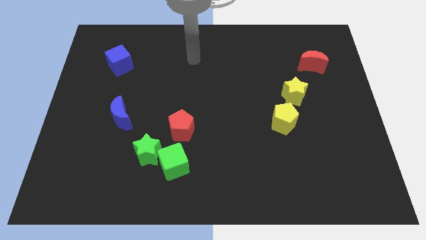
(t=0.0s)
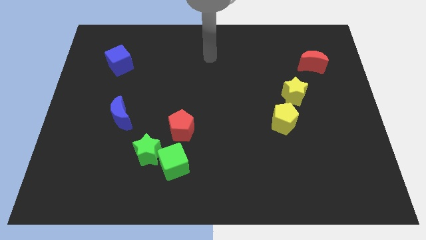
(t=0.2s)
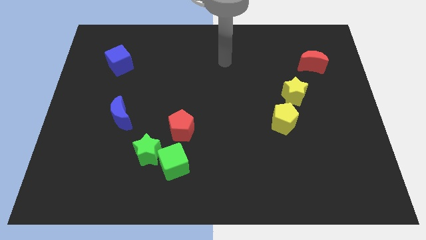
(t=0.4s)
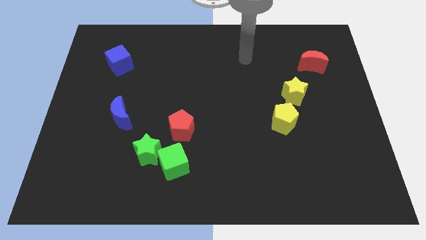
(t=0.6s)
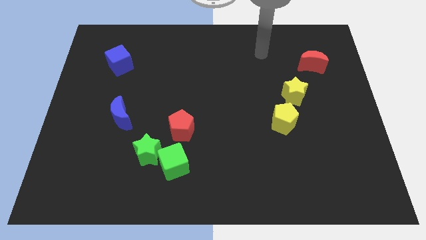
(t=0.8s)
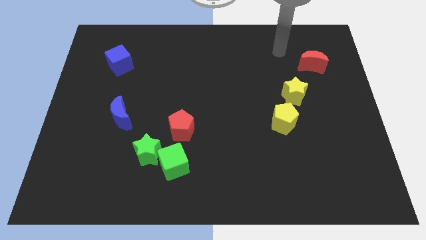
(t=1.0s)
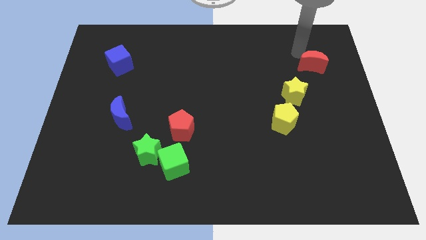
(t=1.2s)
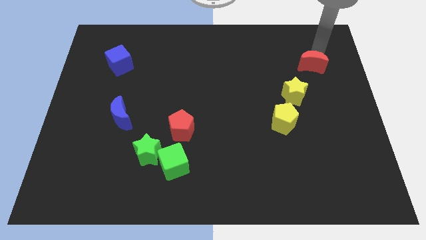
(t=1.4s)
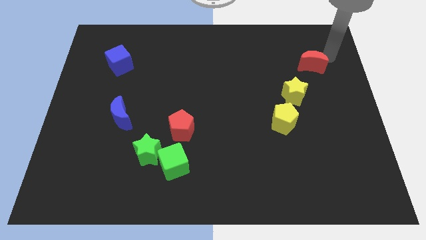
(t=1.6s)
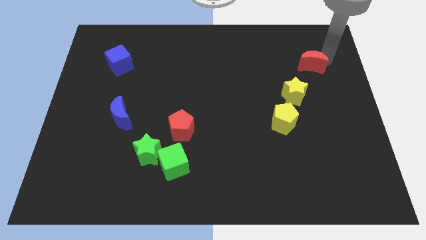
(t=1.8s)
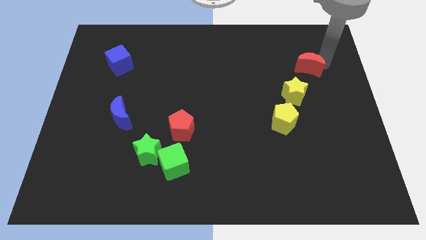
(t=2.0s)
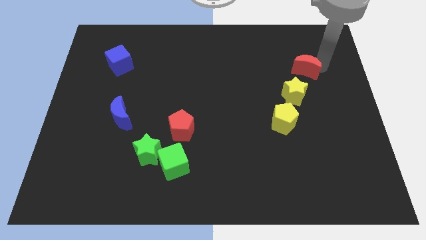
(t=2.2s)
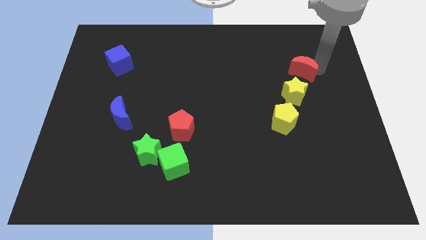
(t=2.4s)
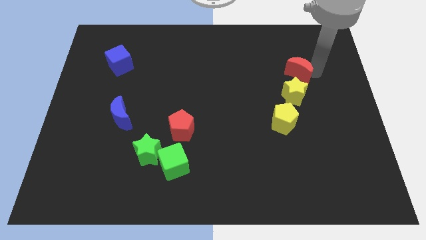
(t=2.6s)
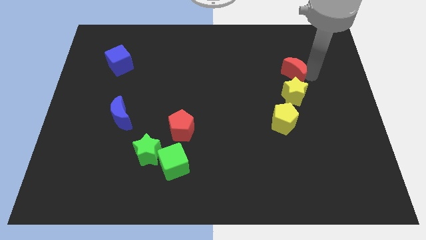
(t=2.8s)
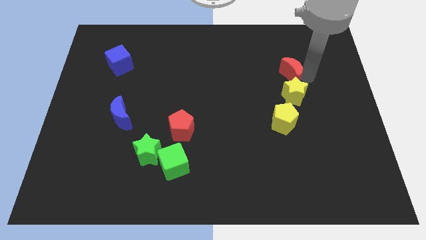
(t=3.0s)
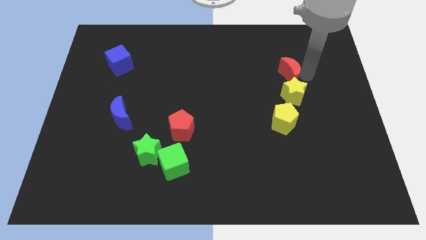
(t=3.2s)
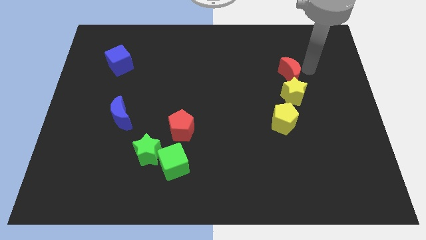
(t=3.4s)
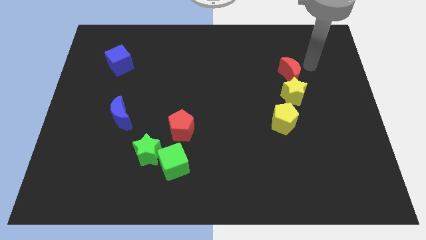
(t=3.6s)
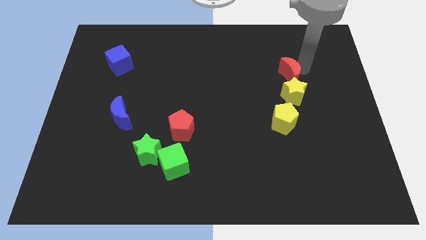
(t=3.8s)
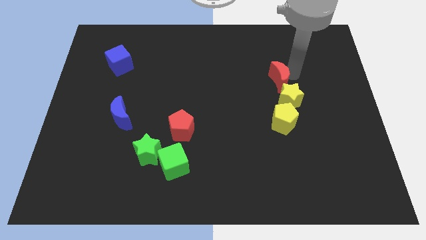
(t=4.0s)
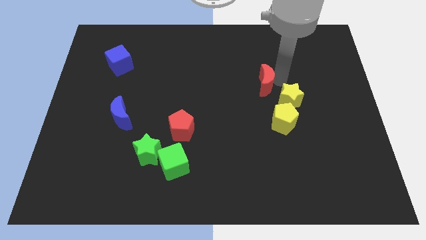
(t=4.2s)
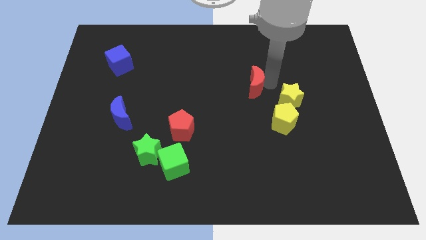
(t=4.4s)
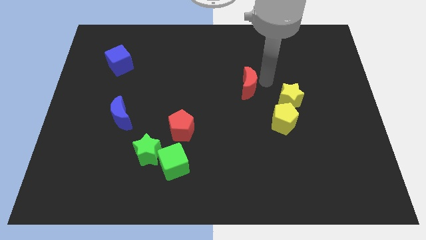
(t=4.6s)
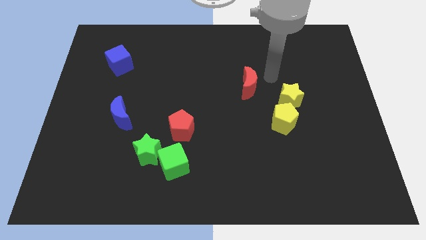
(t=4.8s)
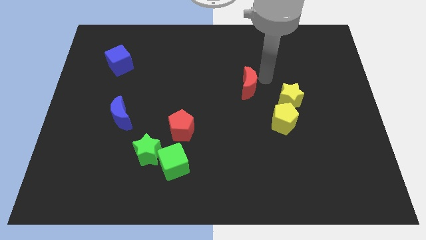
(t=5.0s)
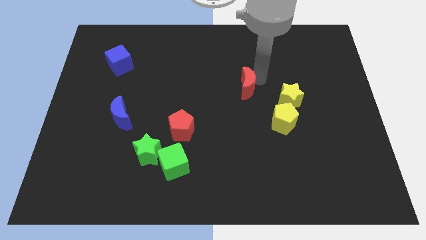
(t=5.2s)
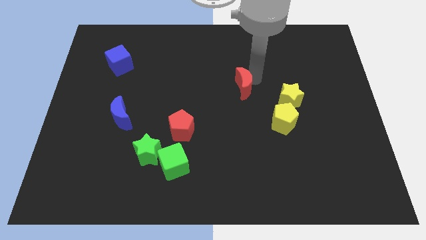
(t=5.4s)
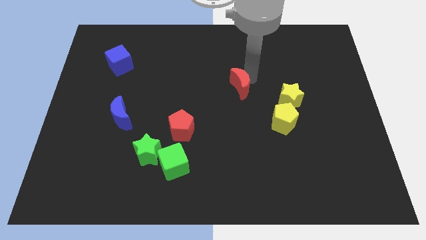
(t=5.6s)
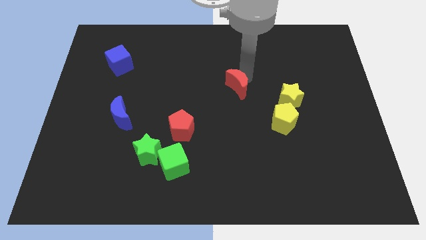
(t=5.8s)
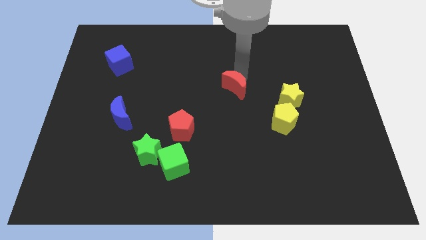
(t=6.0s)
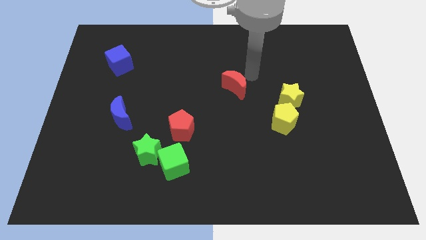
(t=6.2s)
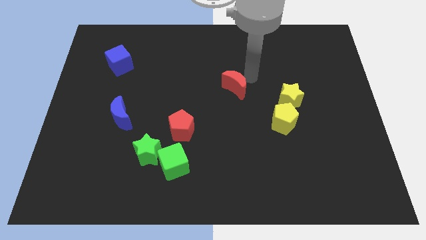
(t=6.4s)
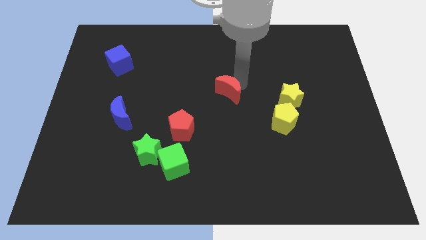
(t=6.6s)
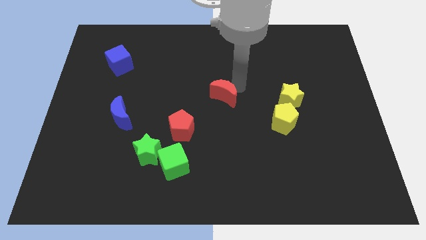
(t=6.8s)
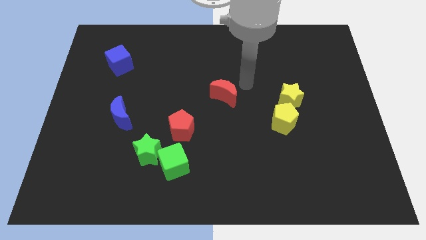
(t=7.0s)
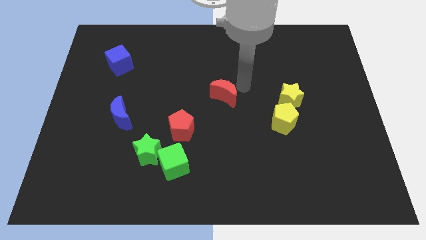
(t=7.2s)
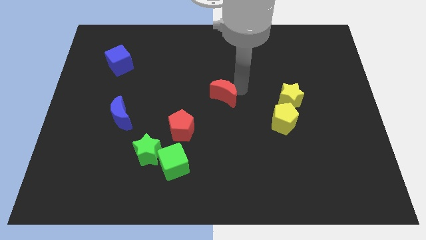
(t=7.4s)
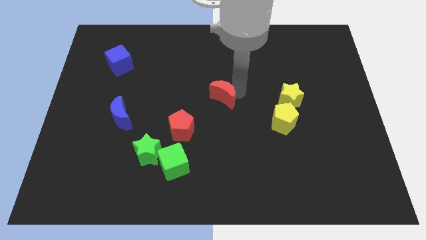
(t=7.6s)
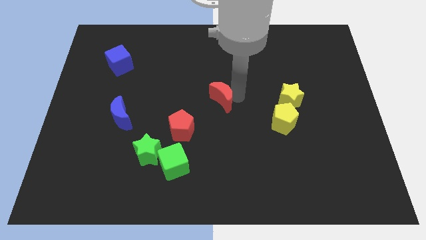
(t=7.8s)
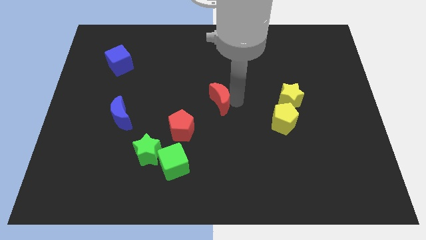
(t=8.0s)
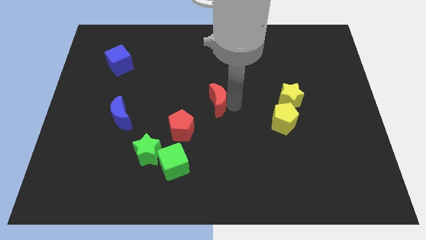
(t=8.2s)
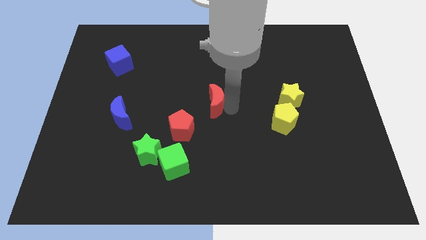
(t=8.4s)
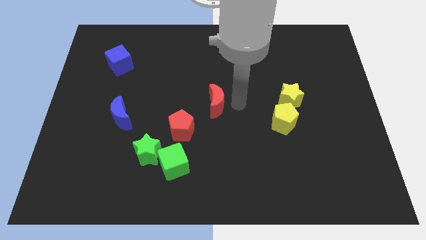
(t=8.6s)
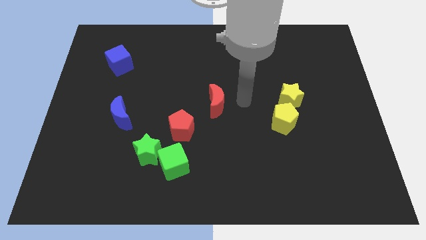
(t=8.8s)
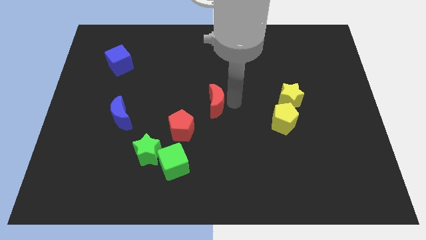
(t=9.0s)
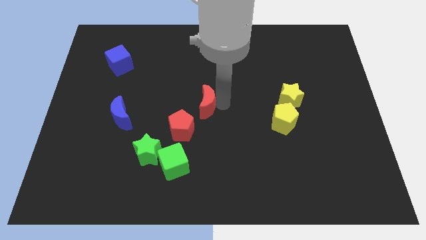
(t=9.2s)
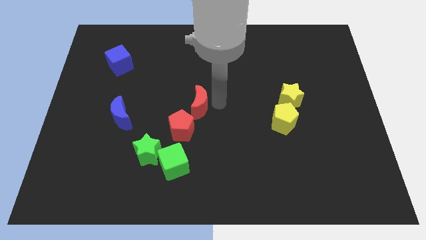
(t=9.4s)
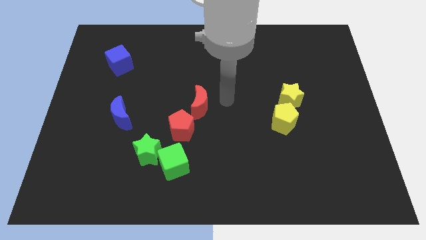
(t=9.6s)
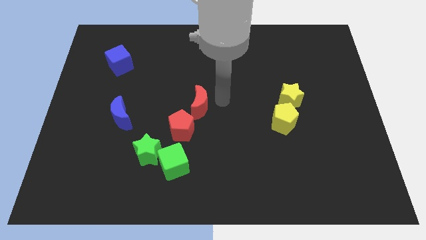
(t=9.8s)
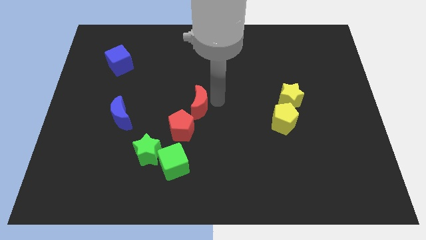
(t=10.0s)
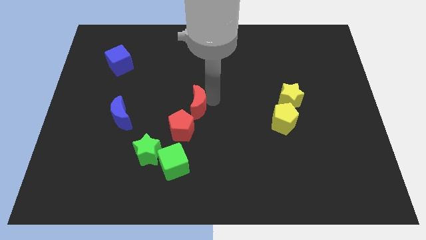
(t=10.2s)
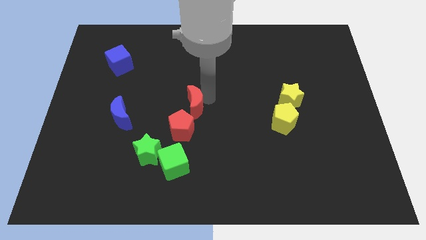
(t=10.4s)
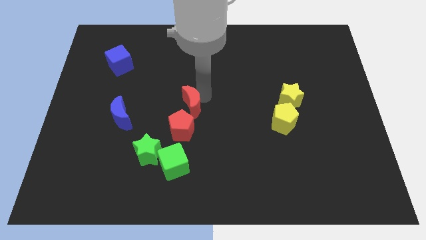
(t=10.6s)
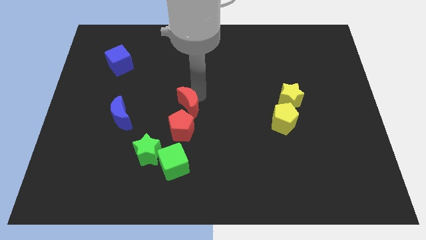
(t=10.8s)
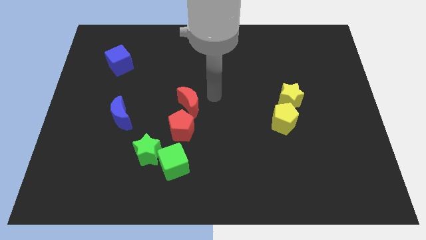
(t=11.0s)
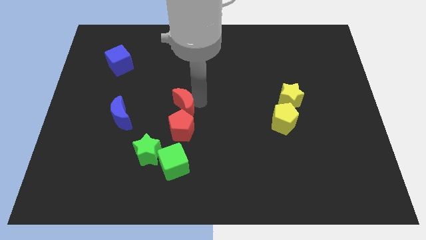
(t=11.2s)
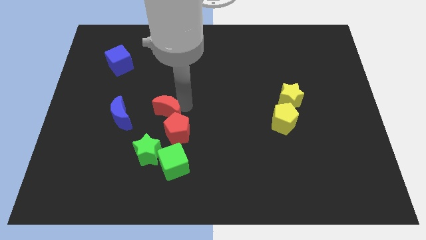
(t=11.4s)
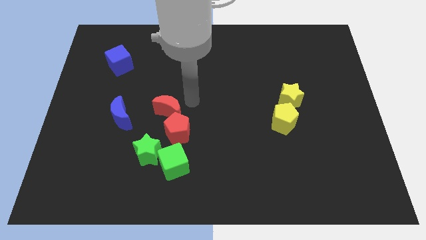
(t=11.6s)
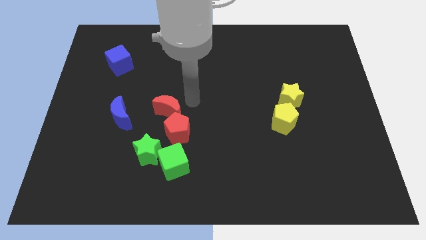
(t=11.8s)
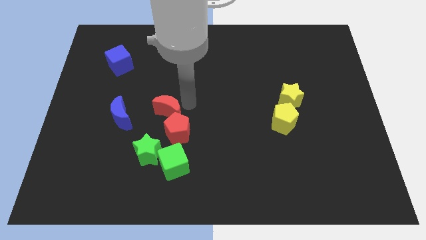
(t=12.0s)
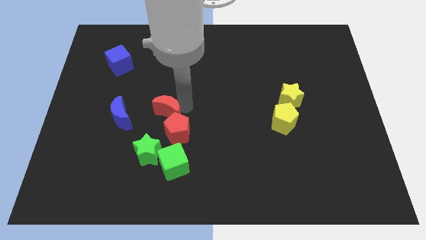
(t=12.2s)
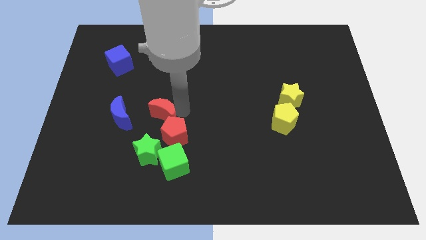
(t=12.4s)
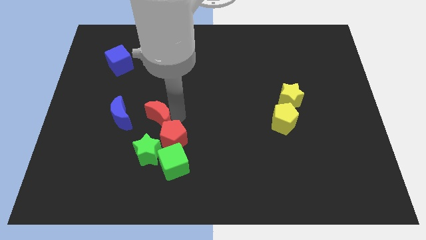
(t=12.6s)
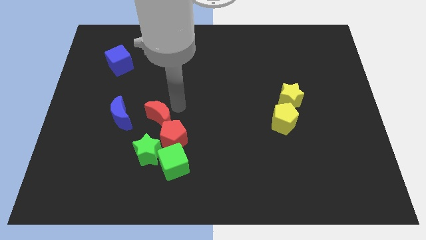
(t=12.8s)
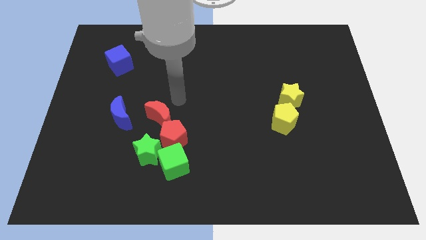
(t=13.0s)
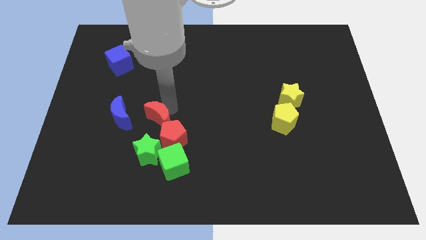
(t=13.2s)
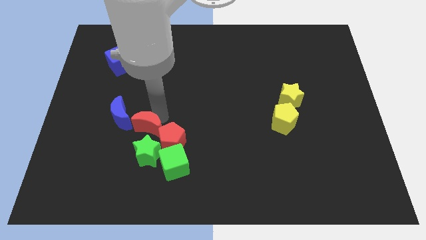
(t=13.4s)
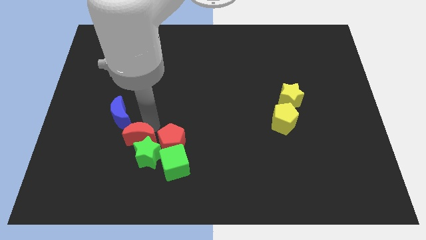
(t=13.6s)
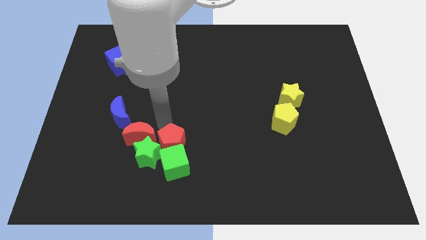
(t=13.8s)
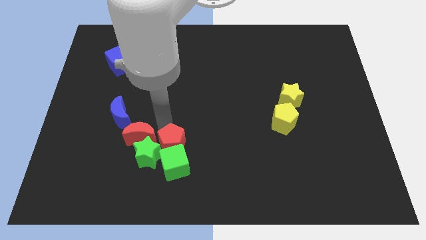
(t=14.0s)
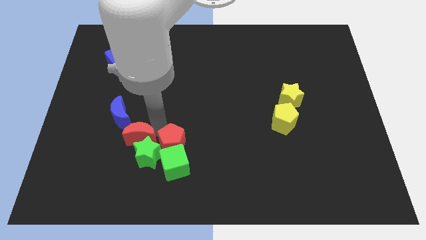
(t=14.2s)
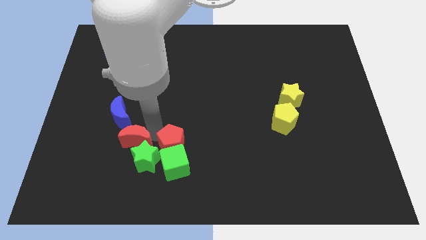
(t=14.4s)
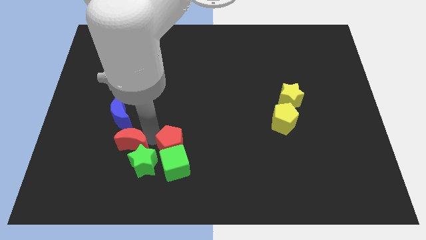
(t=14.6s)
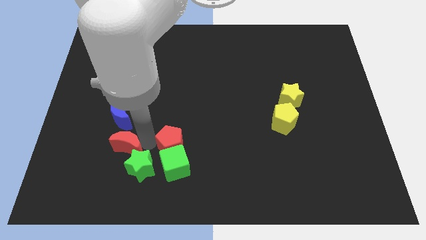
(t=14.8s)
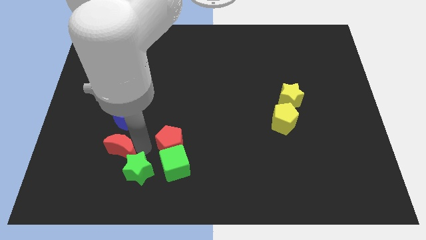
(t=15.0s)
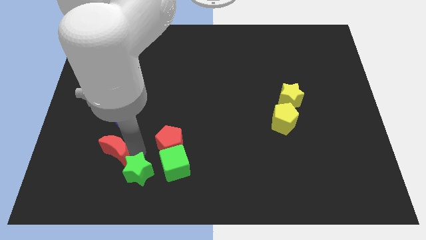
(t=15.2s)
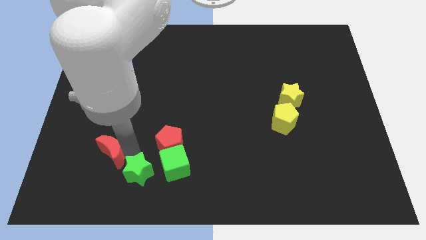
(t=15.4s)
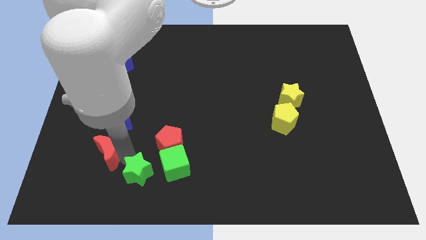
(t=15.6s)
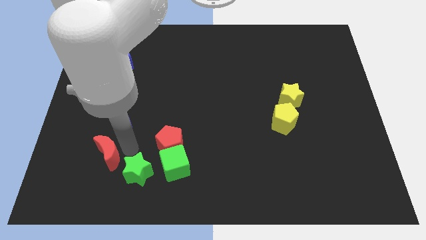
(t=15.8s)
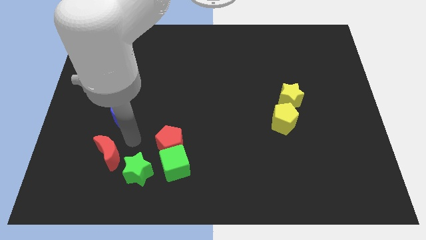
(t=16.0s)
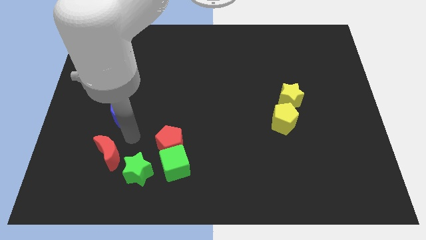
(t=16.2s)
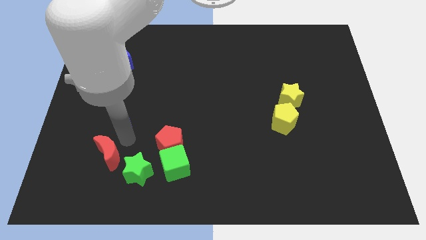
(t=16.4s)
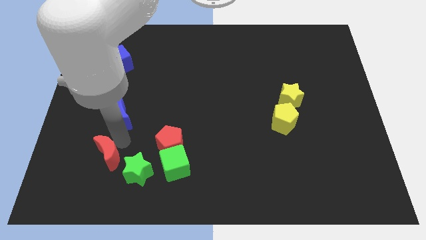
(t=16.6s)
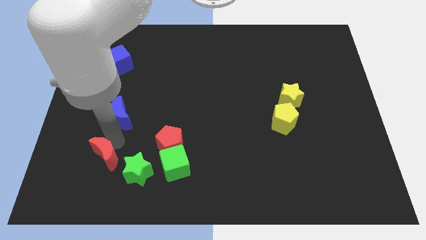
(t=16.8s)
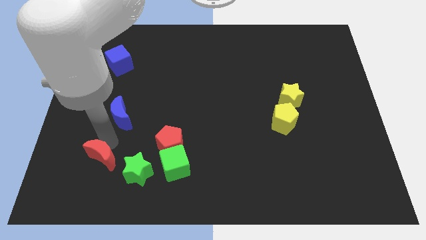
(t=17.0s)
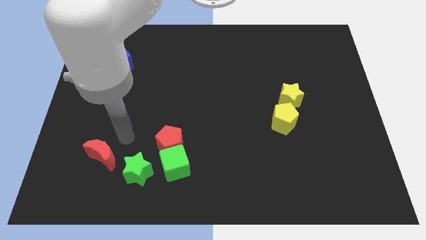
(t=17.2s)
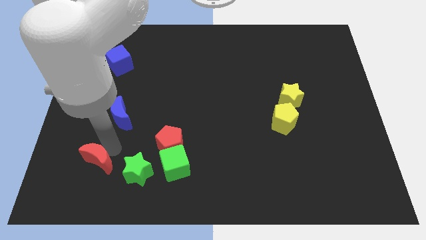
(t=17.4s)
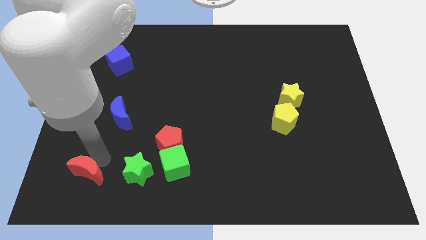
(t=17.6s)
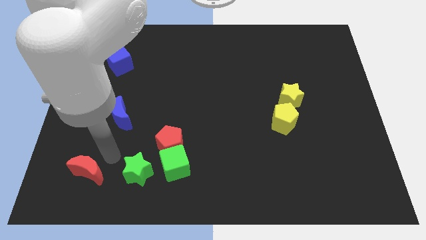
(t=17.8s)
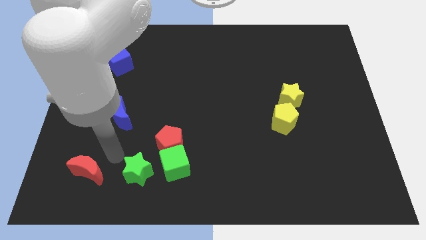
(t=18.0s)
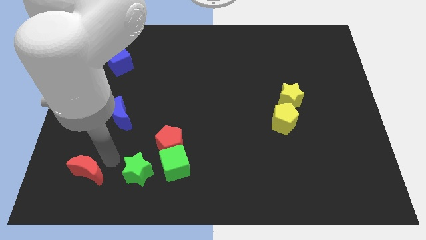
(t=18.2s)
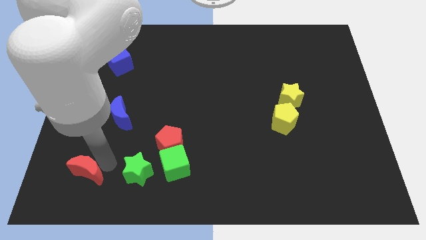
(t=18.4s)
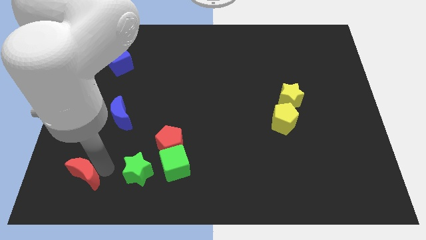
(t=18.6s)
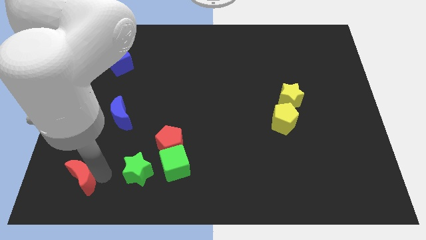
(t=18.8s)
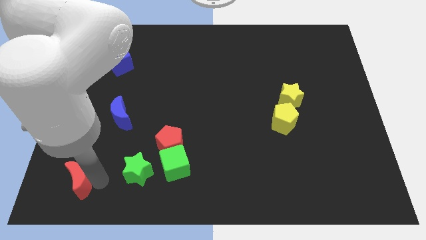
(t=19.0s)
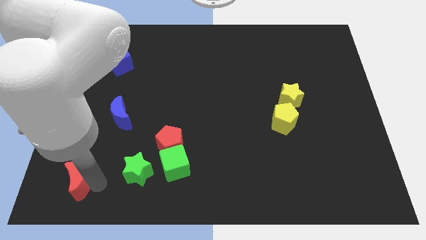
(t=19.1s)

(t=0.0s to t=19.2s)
put the red moon to the lower left corner
